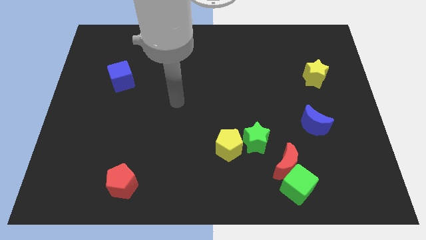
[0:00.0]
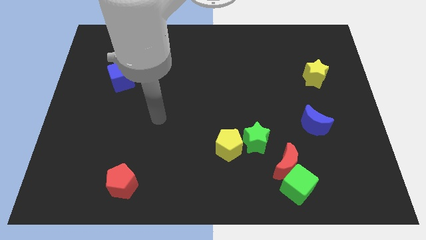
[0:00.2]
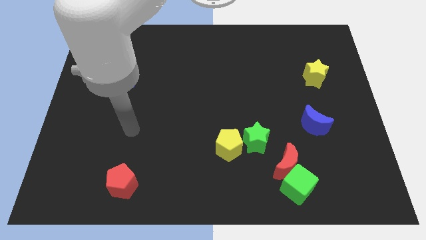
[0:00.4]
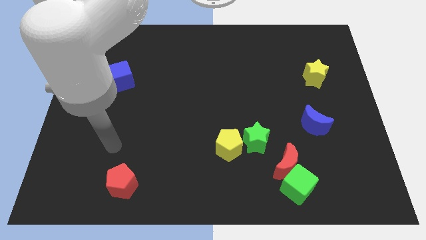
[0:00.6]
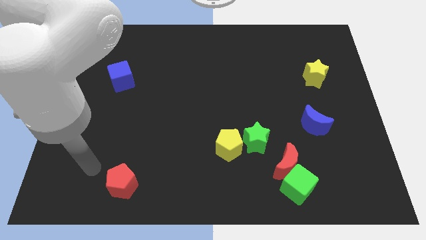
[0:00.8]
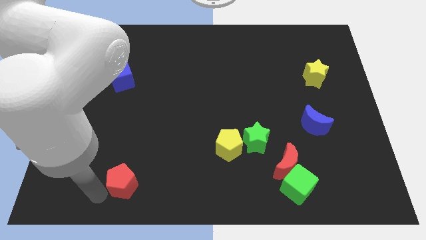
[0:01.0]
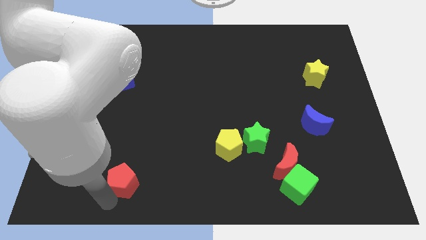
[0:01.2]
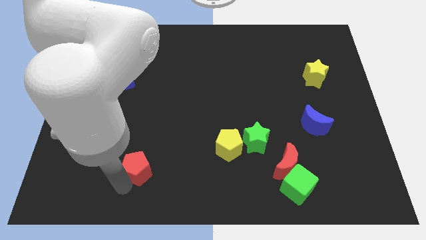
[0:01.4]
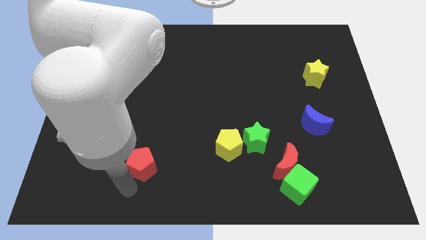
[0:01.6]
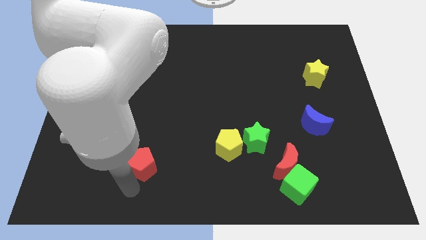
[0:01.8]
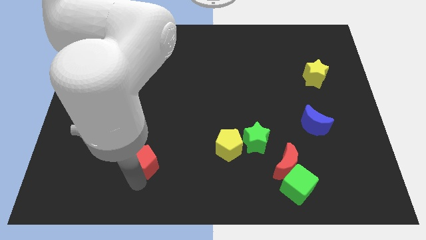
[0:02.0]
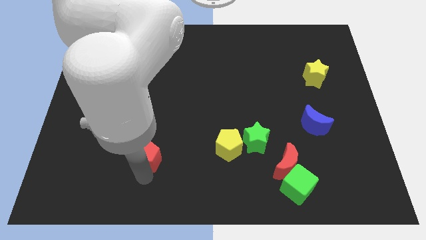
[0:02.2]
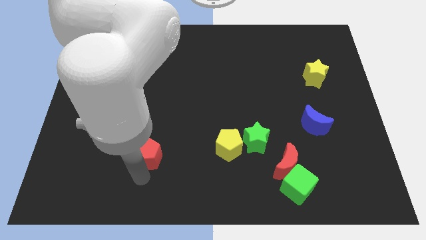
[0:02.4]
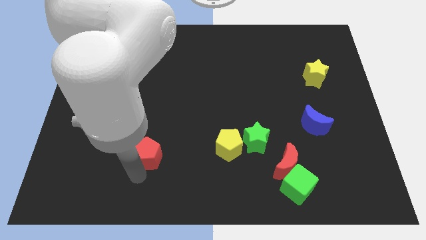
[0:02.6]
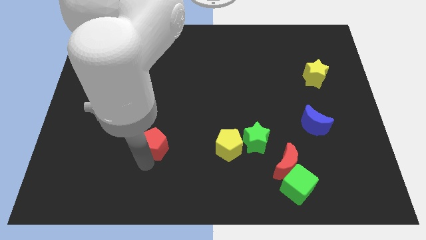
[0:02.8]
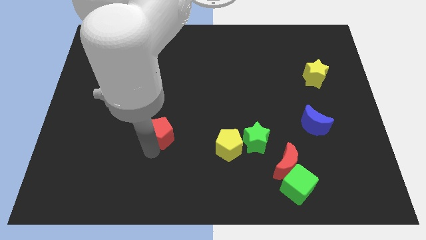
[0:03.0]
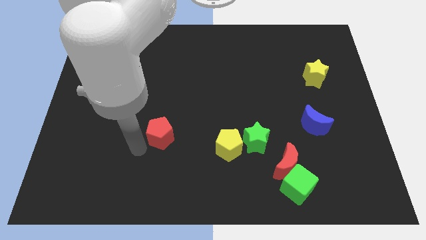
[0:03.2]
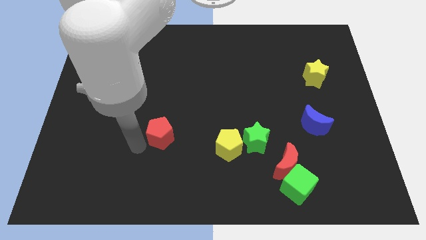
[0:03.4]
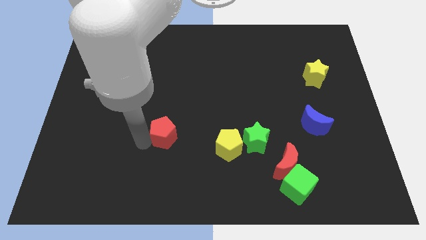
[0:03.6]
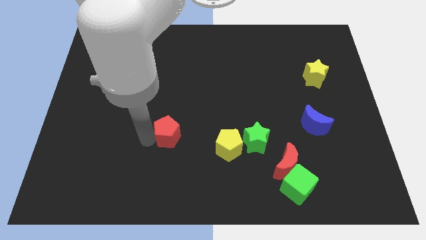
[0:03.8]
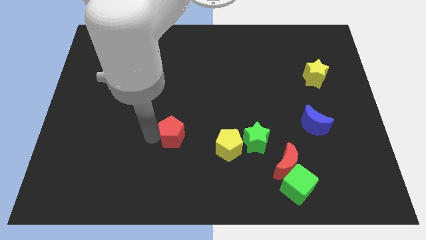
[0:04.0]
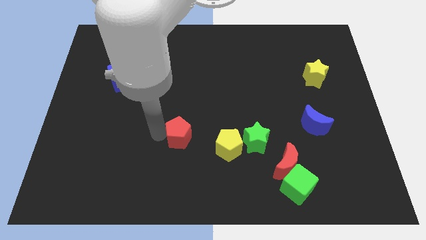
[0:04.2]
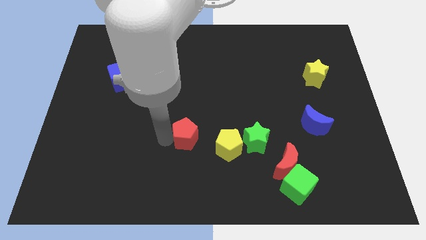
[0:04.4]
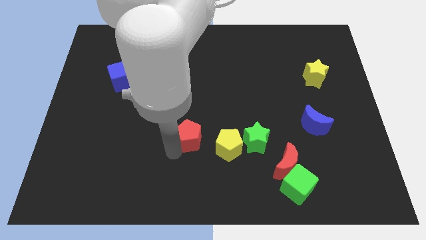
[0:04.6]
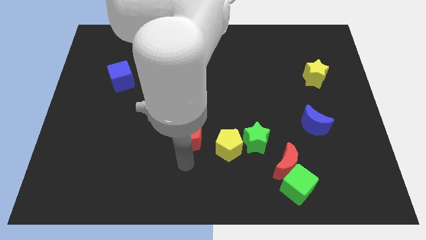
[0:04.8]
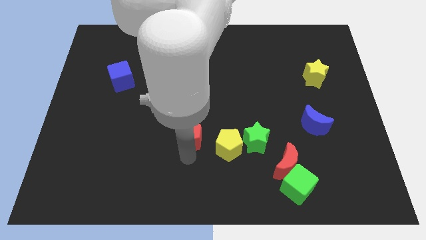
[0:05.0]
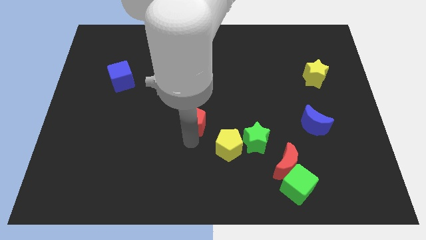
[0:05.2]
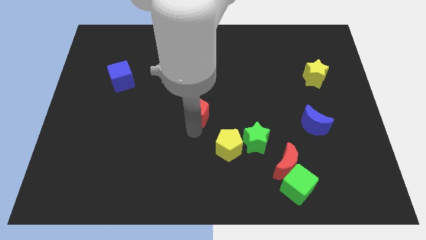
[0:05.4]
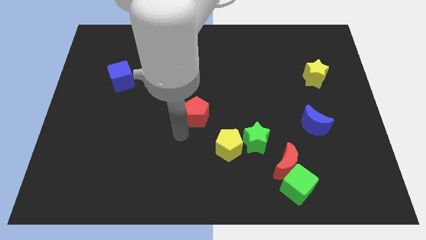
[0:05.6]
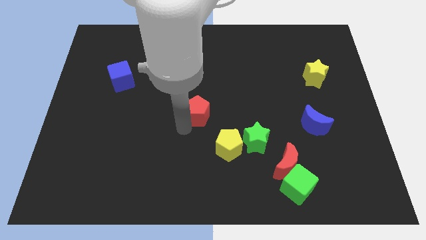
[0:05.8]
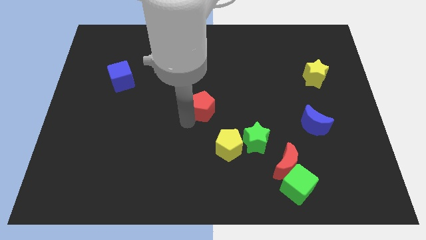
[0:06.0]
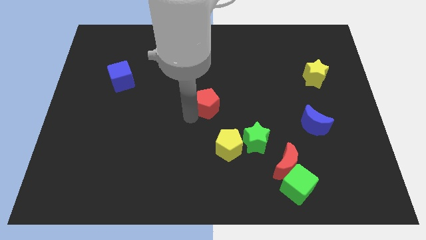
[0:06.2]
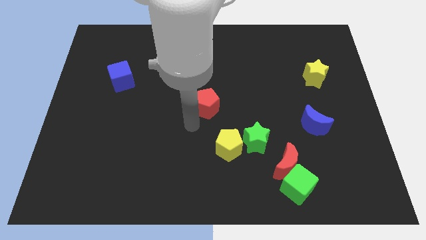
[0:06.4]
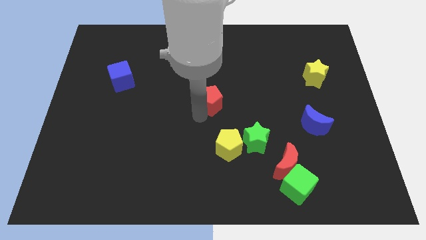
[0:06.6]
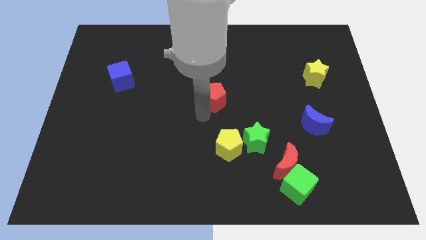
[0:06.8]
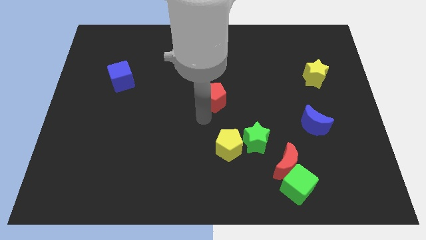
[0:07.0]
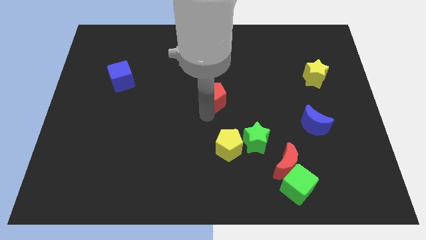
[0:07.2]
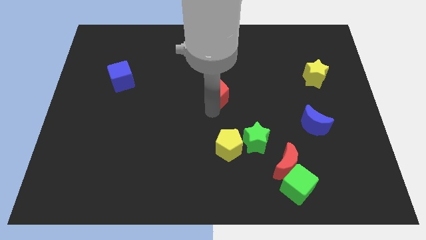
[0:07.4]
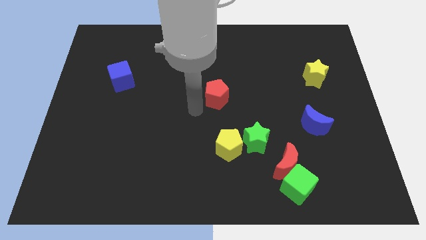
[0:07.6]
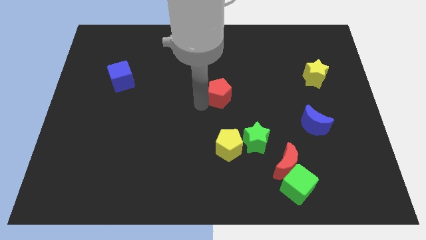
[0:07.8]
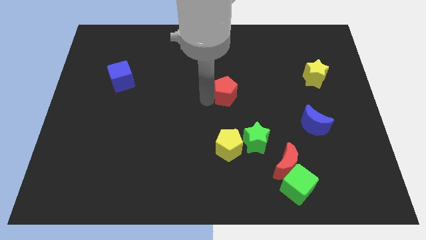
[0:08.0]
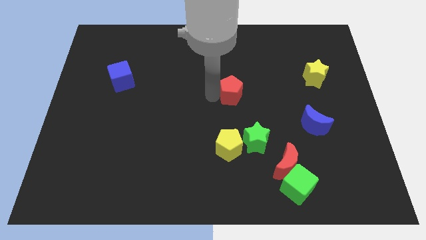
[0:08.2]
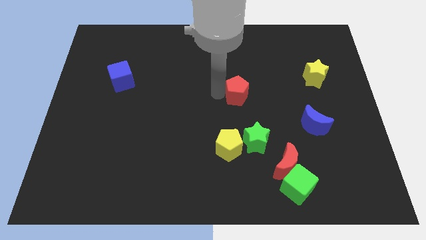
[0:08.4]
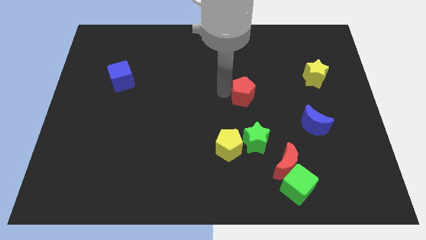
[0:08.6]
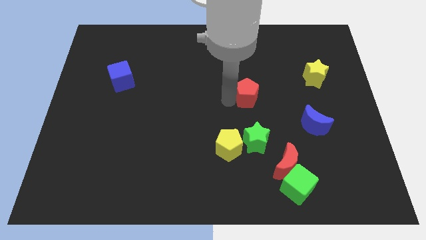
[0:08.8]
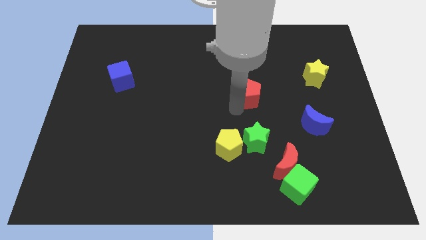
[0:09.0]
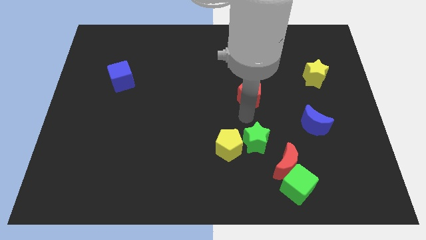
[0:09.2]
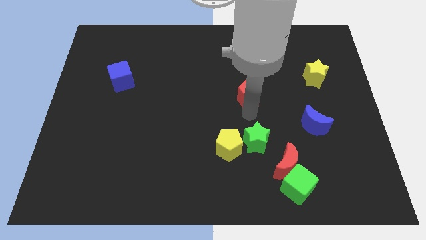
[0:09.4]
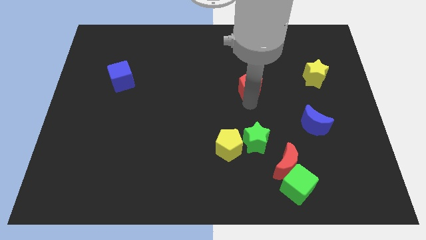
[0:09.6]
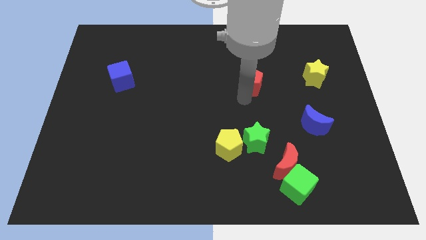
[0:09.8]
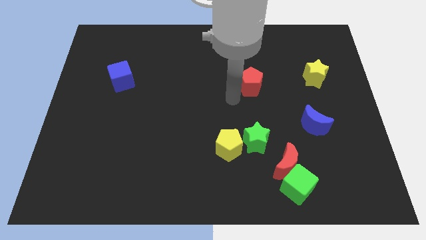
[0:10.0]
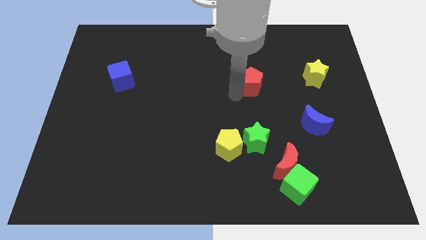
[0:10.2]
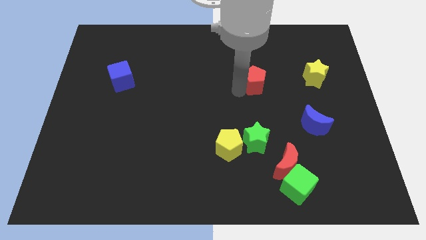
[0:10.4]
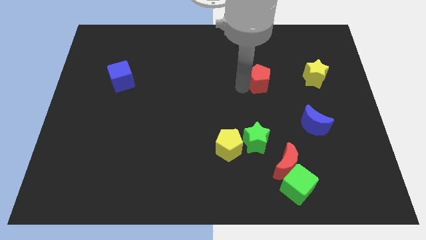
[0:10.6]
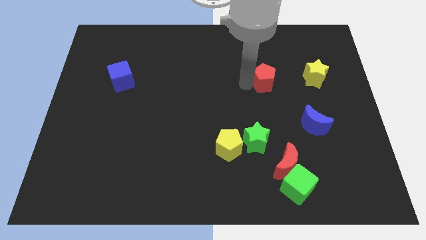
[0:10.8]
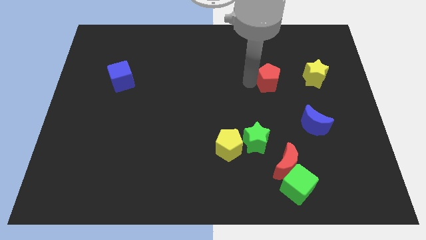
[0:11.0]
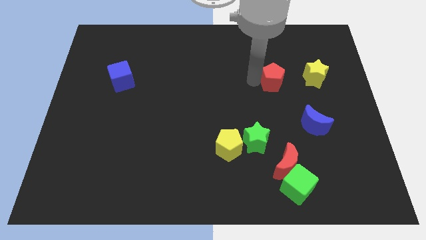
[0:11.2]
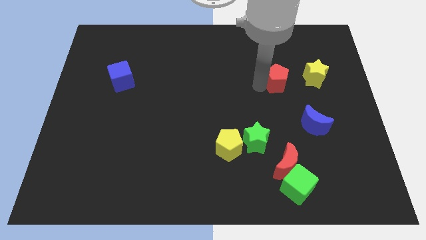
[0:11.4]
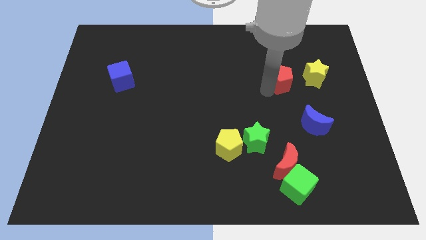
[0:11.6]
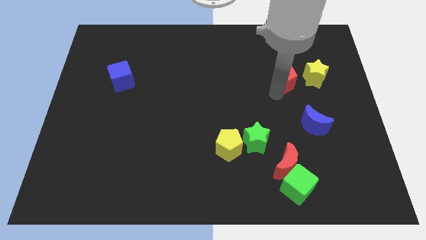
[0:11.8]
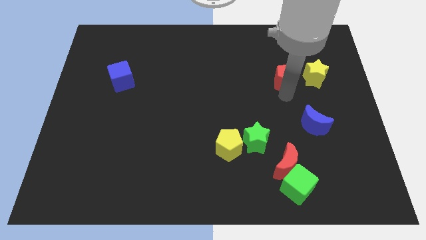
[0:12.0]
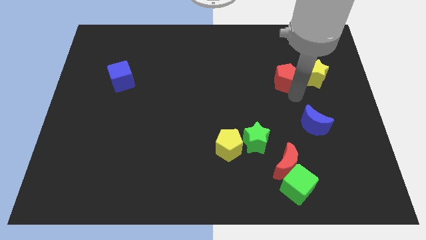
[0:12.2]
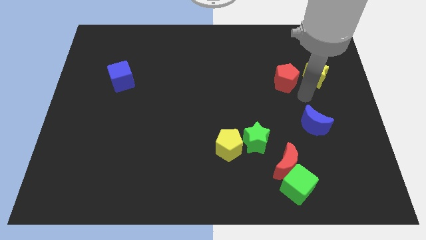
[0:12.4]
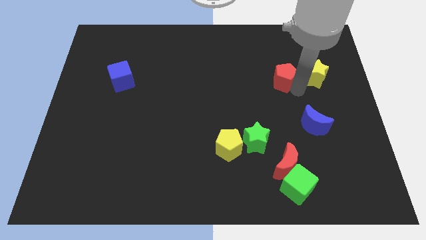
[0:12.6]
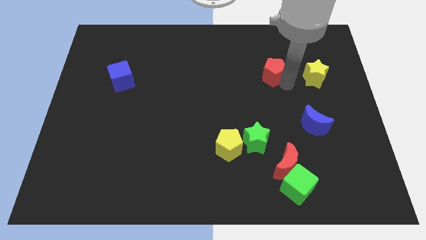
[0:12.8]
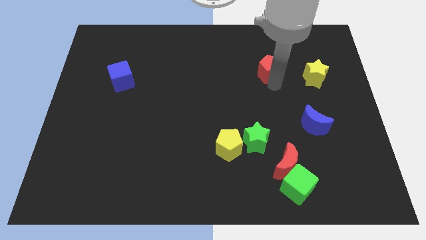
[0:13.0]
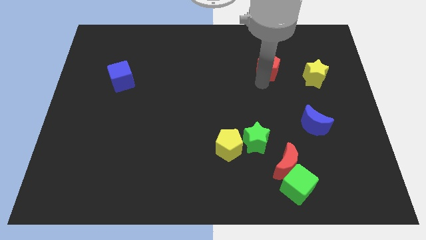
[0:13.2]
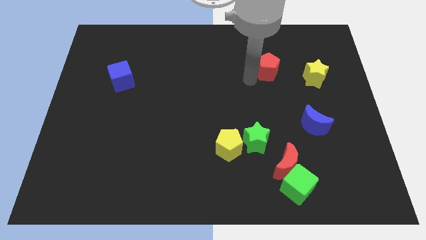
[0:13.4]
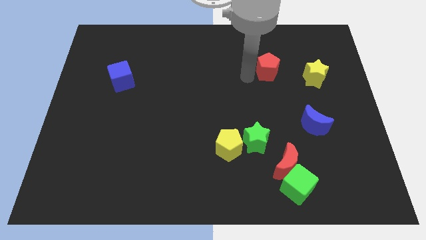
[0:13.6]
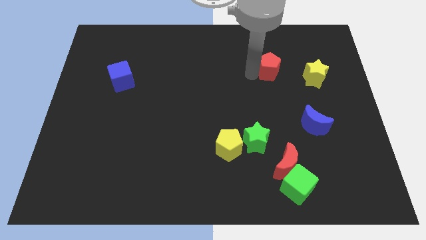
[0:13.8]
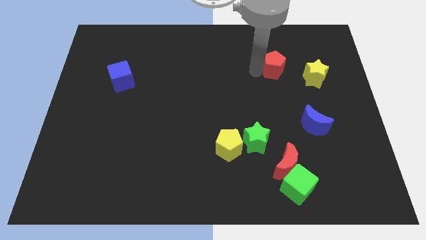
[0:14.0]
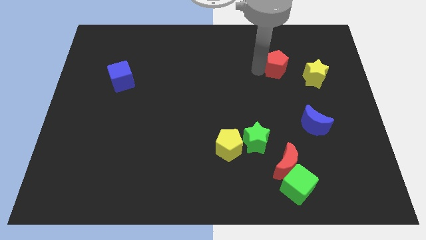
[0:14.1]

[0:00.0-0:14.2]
put the red pentagon to the top left side of the yellow star
